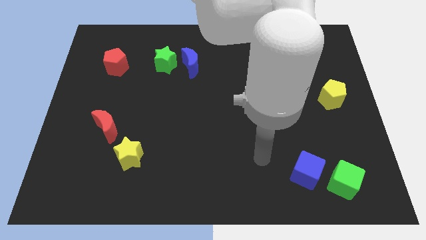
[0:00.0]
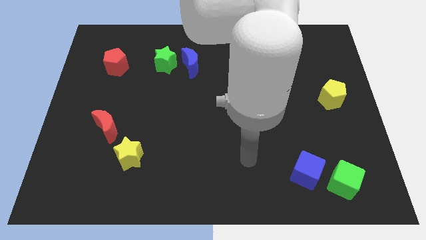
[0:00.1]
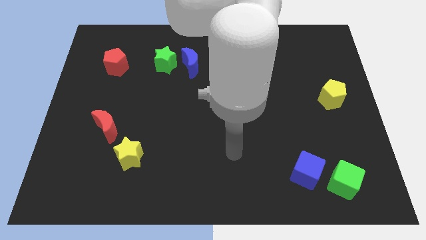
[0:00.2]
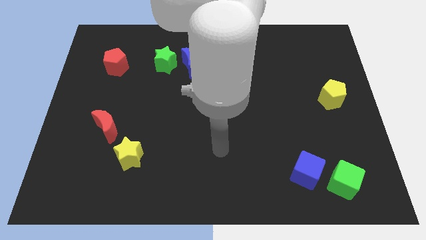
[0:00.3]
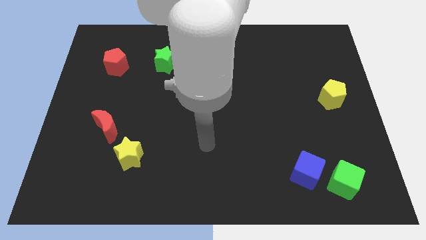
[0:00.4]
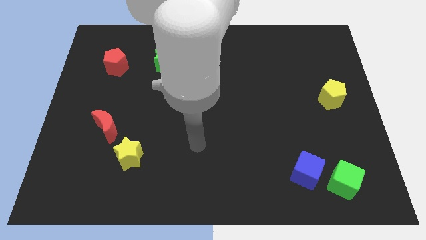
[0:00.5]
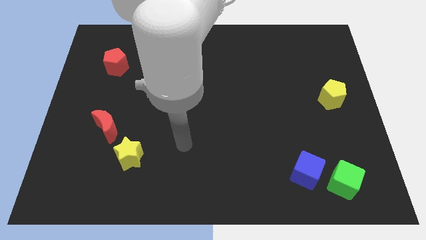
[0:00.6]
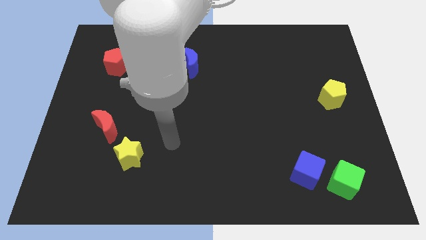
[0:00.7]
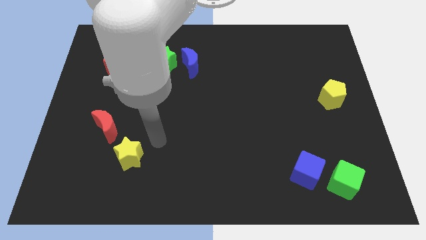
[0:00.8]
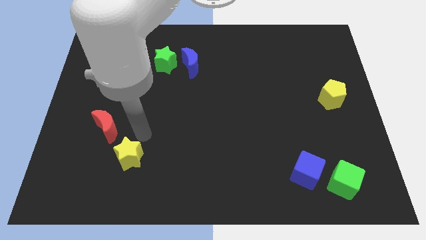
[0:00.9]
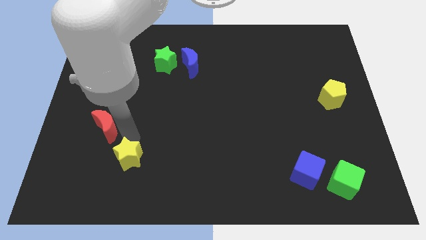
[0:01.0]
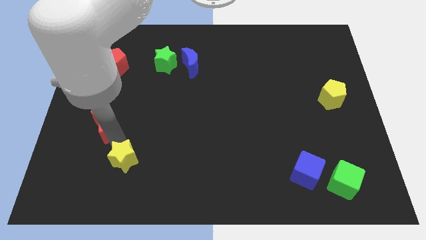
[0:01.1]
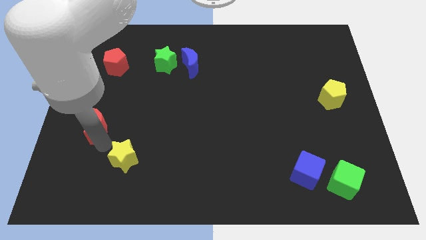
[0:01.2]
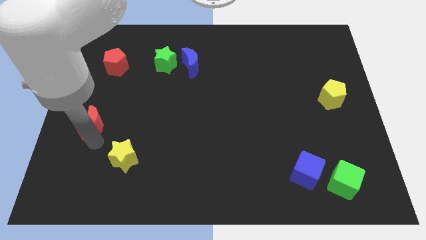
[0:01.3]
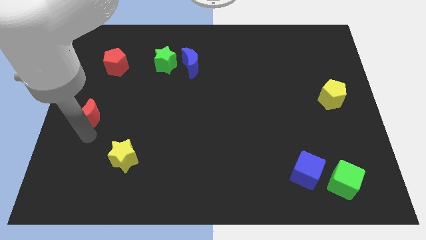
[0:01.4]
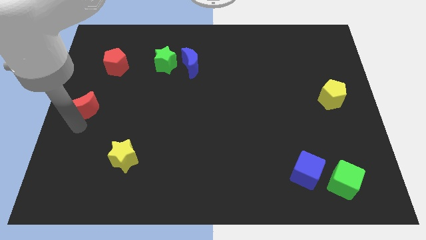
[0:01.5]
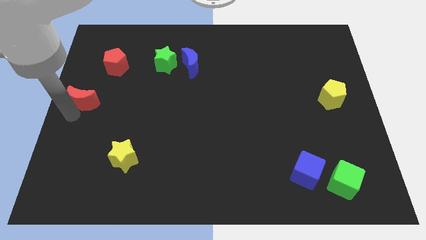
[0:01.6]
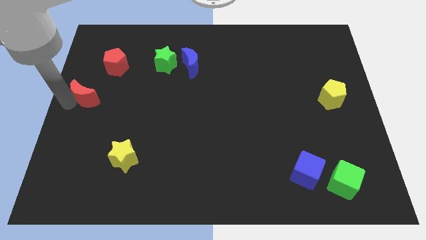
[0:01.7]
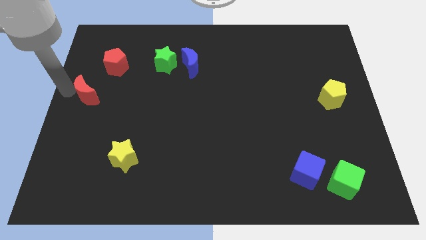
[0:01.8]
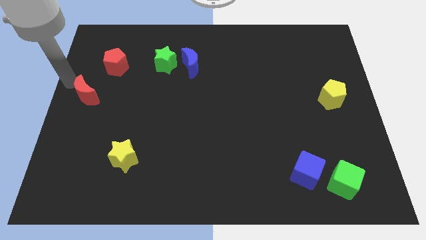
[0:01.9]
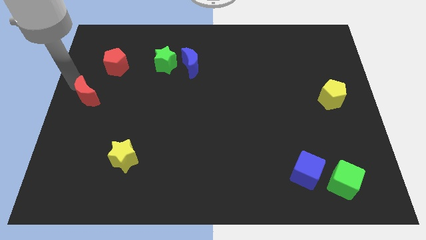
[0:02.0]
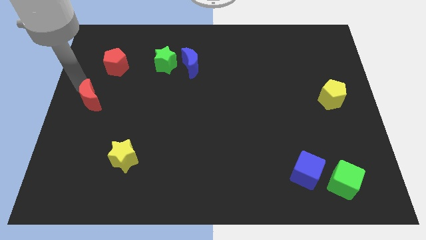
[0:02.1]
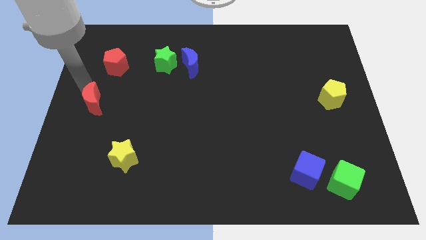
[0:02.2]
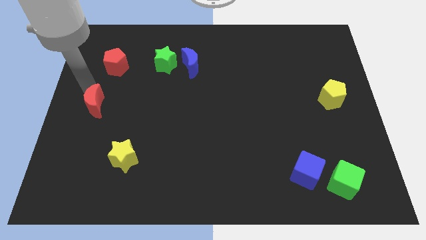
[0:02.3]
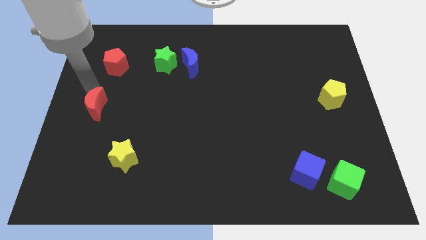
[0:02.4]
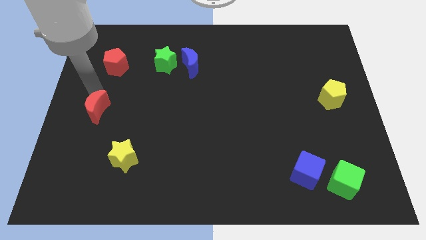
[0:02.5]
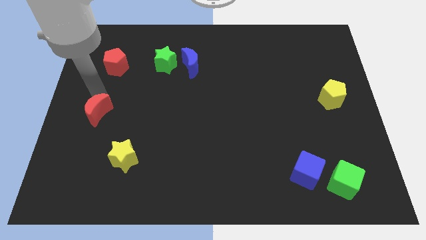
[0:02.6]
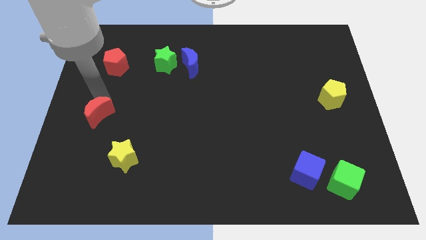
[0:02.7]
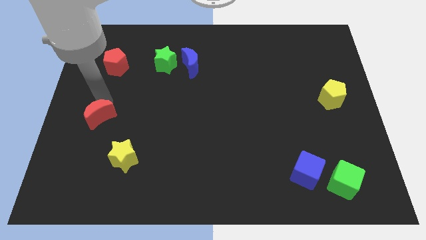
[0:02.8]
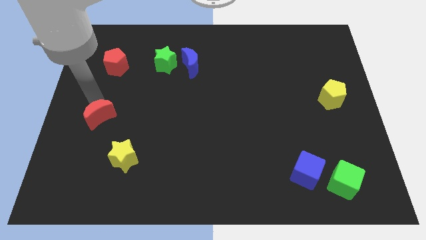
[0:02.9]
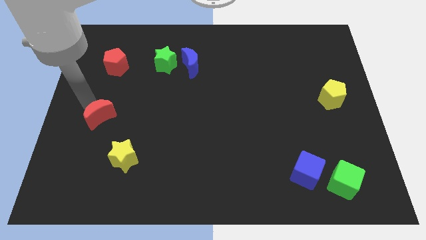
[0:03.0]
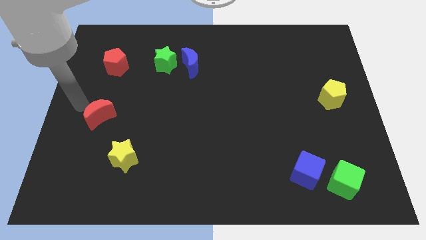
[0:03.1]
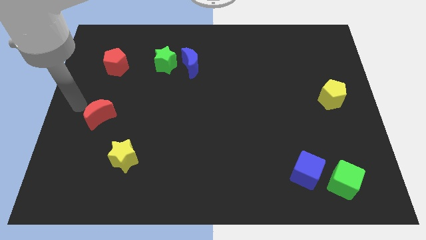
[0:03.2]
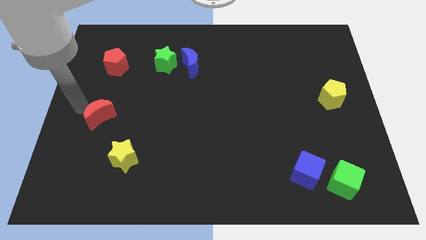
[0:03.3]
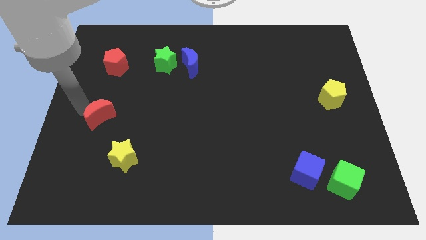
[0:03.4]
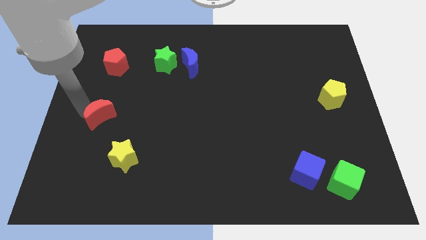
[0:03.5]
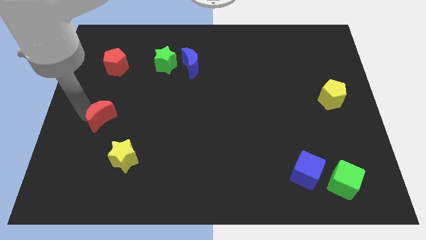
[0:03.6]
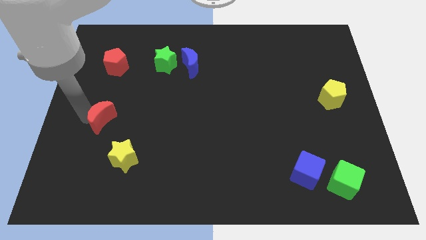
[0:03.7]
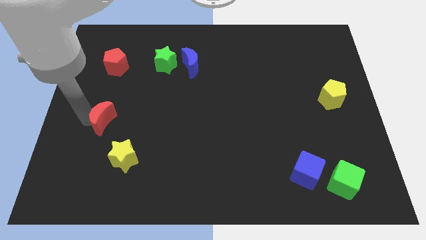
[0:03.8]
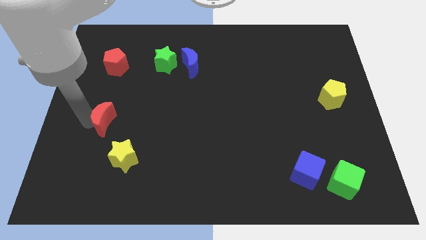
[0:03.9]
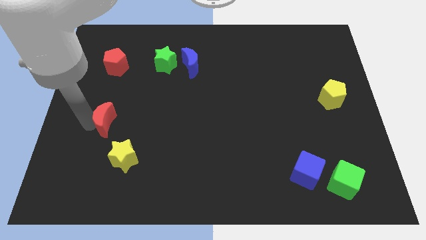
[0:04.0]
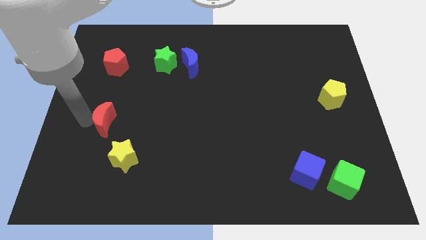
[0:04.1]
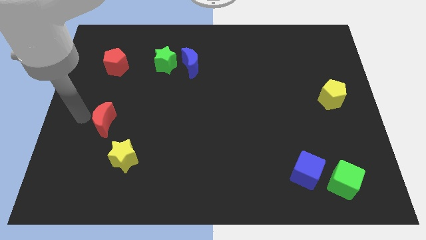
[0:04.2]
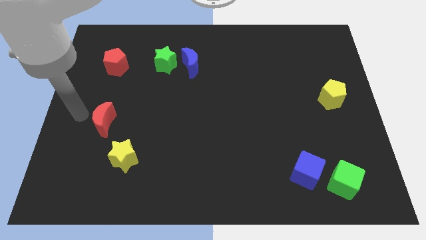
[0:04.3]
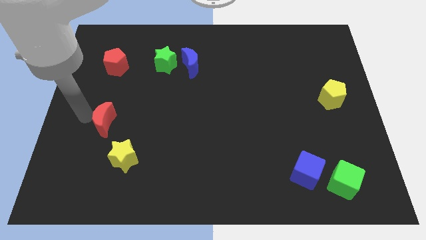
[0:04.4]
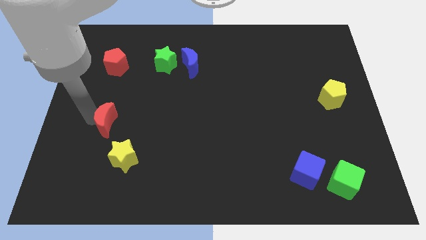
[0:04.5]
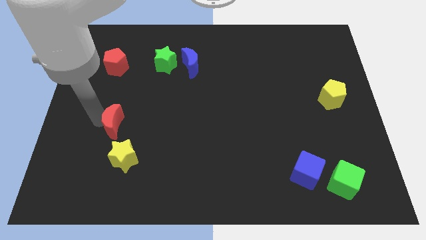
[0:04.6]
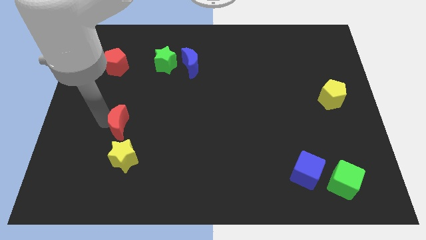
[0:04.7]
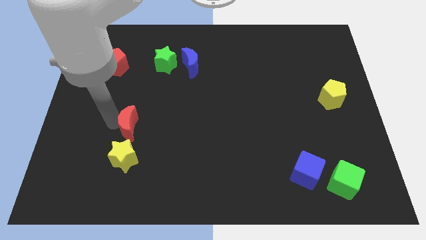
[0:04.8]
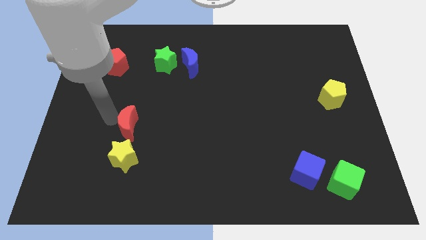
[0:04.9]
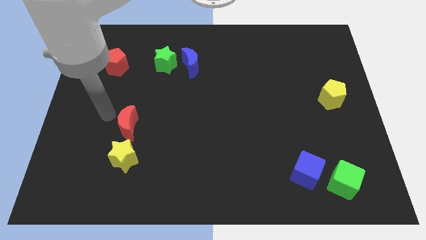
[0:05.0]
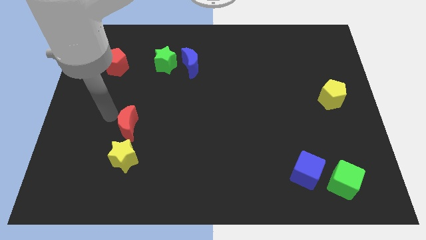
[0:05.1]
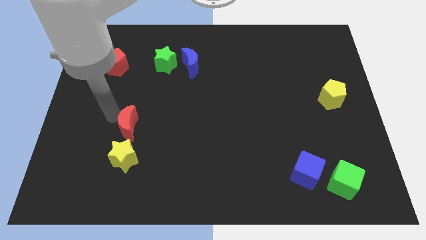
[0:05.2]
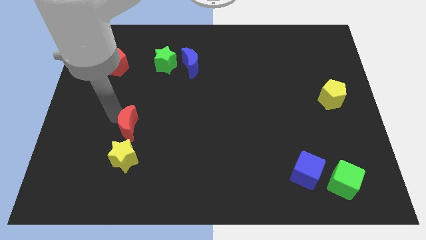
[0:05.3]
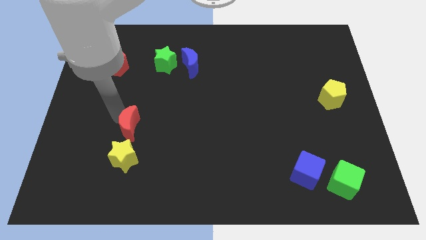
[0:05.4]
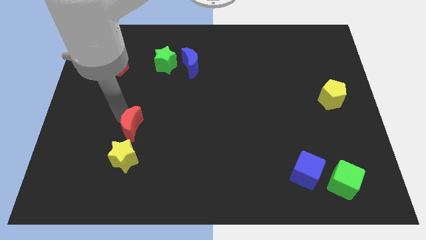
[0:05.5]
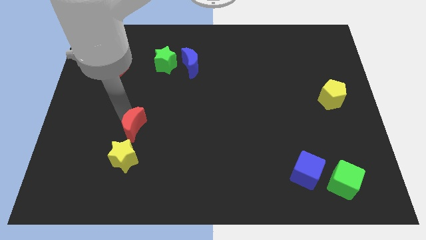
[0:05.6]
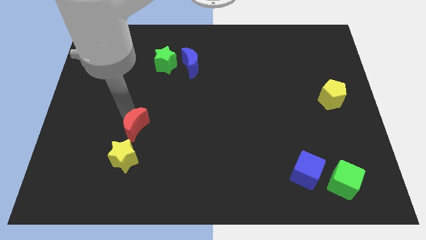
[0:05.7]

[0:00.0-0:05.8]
slide the red moon to the top right side of the yellow star

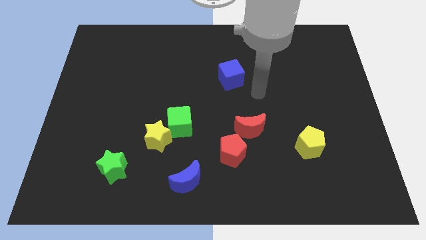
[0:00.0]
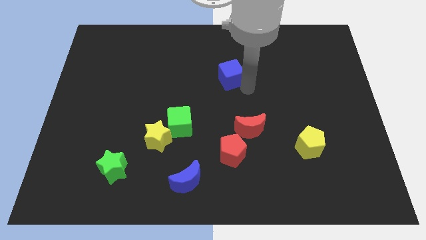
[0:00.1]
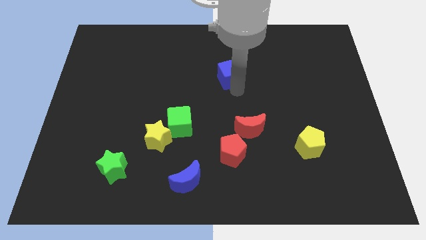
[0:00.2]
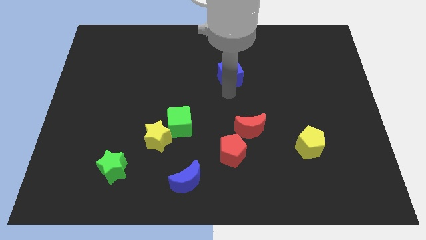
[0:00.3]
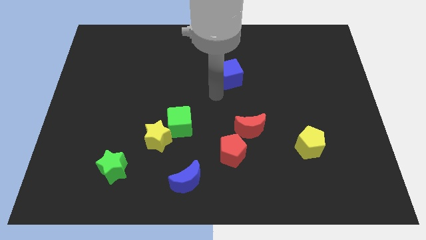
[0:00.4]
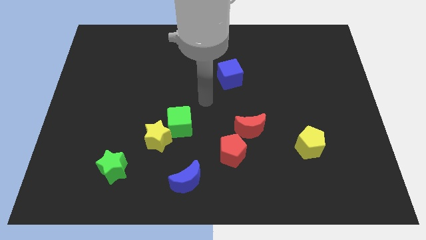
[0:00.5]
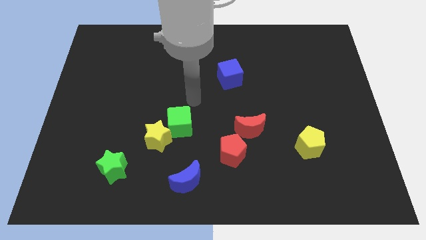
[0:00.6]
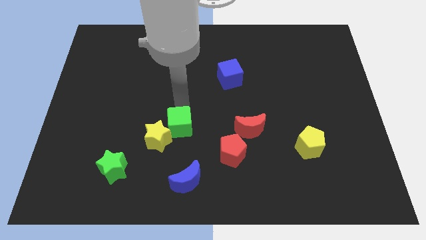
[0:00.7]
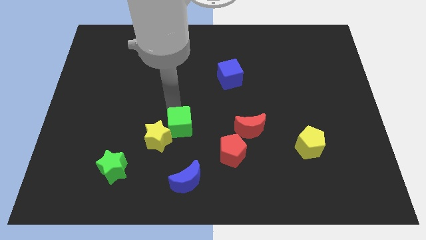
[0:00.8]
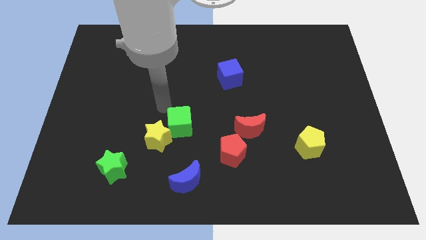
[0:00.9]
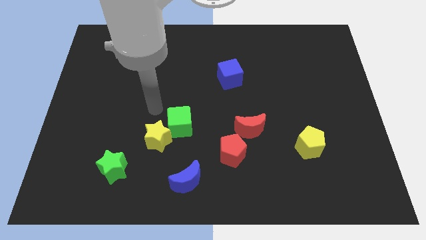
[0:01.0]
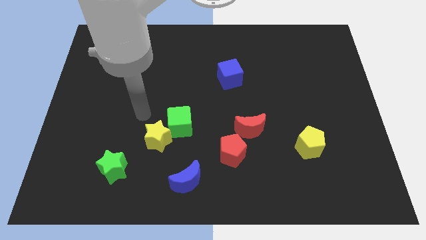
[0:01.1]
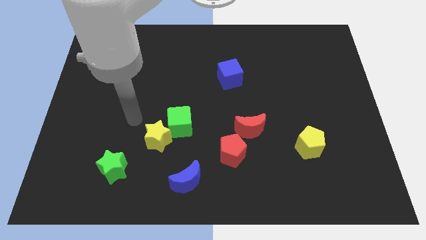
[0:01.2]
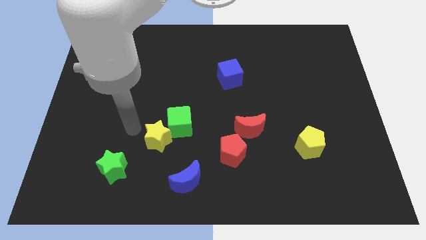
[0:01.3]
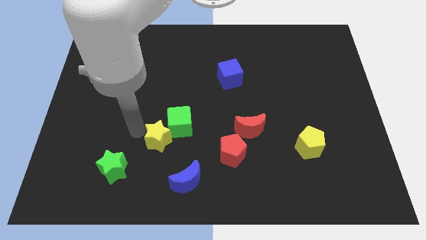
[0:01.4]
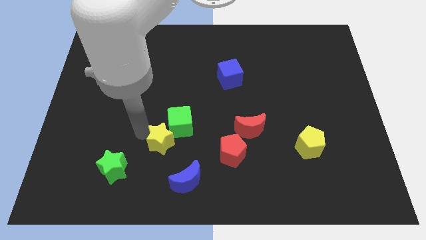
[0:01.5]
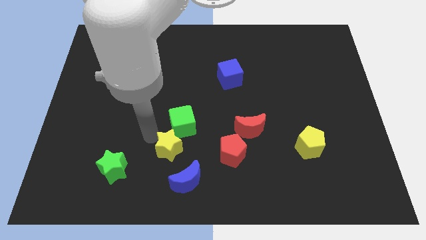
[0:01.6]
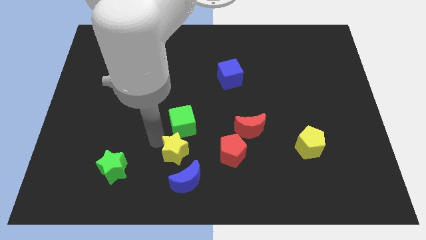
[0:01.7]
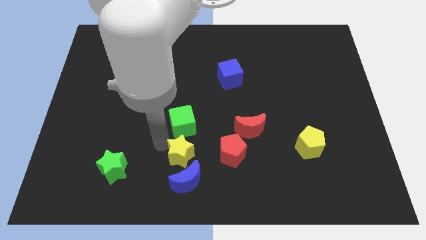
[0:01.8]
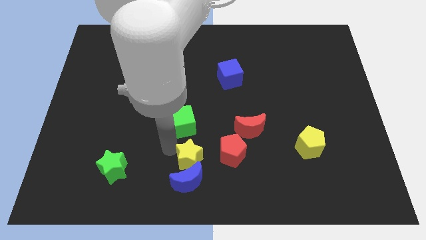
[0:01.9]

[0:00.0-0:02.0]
push the yellow star to the top right of the blue moon
